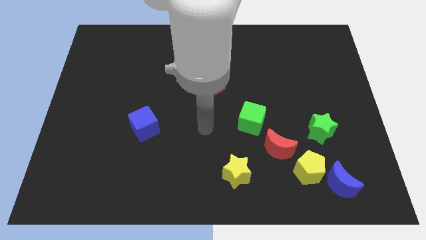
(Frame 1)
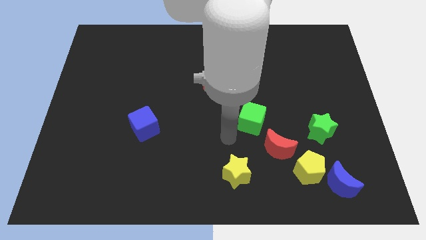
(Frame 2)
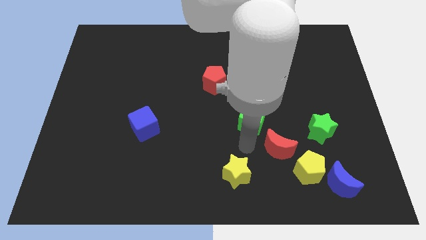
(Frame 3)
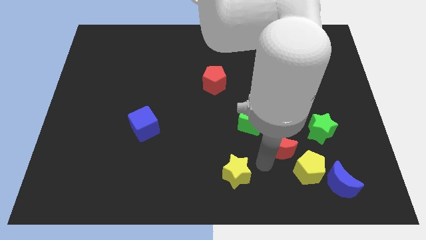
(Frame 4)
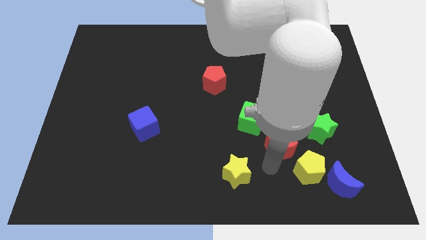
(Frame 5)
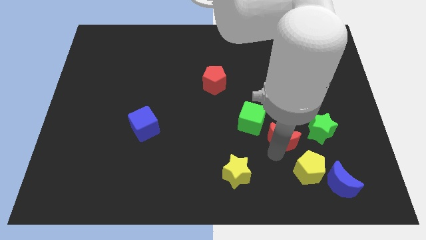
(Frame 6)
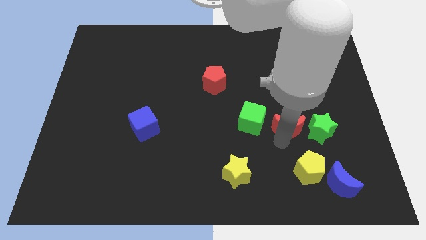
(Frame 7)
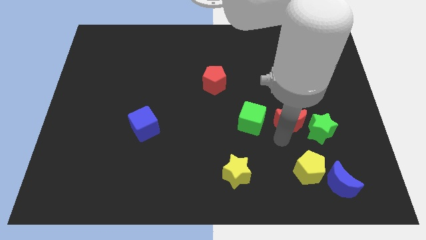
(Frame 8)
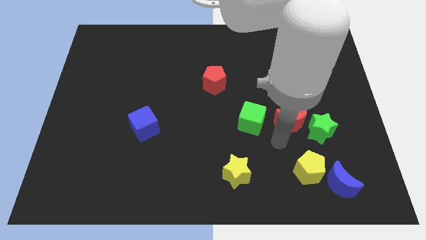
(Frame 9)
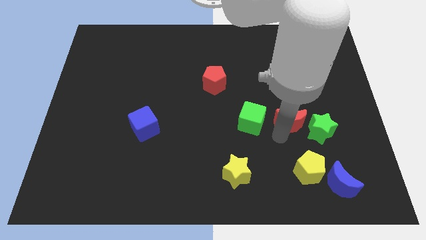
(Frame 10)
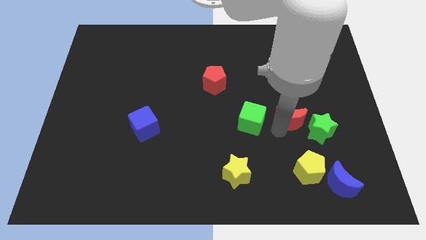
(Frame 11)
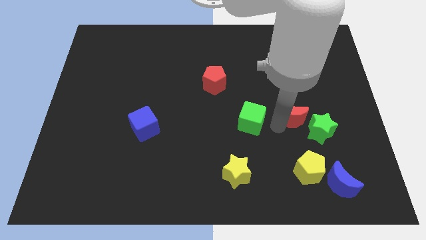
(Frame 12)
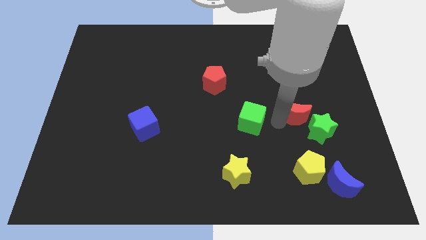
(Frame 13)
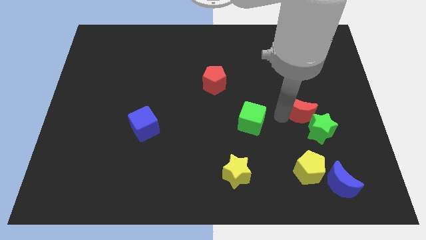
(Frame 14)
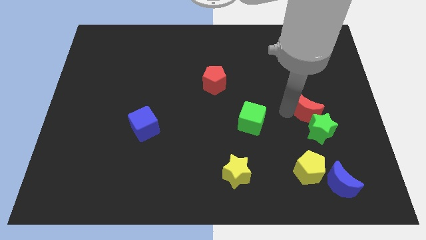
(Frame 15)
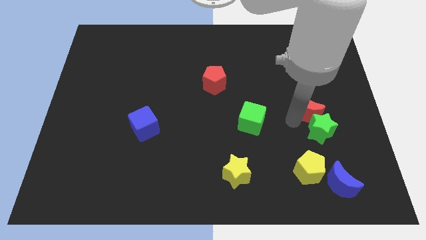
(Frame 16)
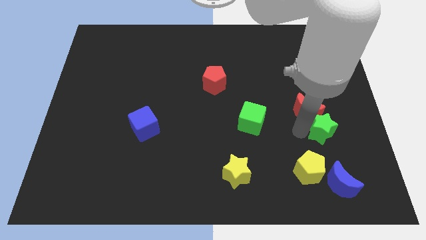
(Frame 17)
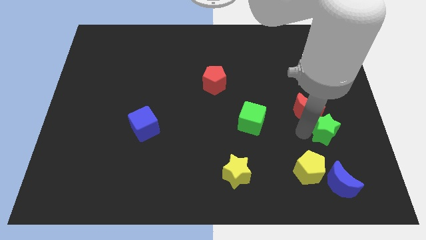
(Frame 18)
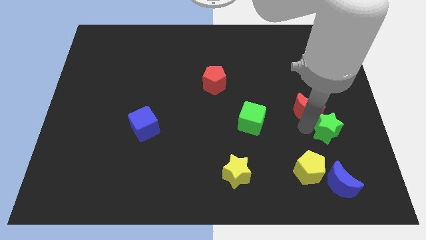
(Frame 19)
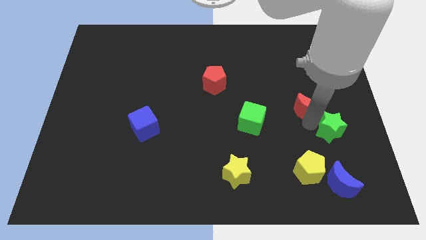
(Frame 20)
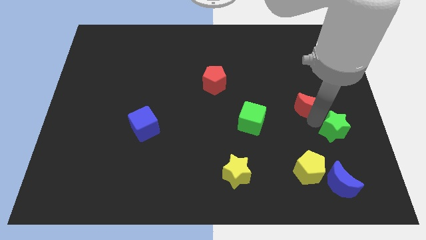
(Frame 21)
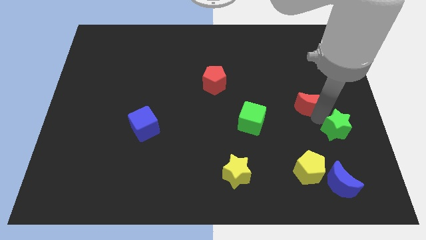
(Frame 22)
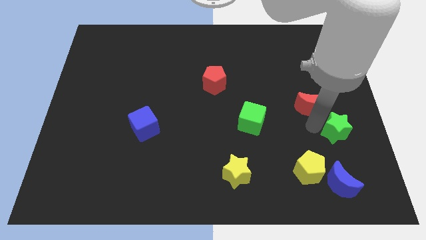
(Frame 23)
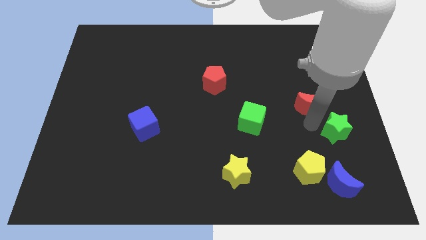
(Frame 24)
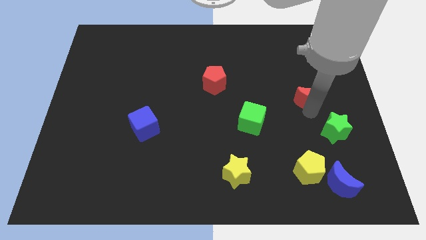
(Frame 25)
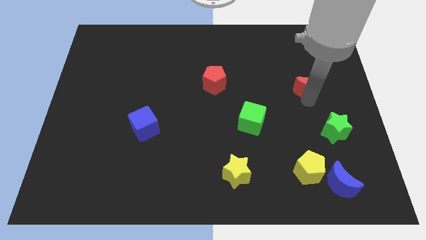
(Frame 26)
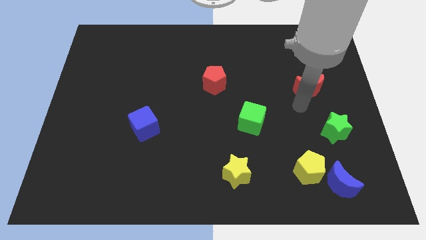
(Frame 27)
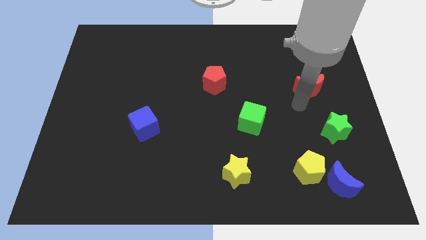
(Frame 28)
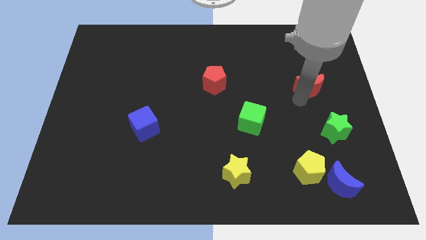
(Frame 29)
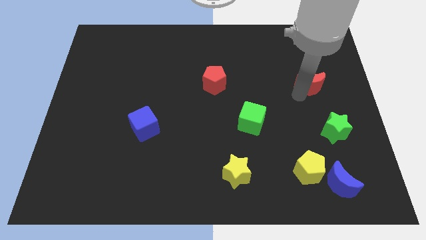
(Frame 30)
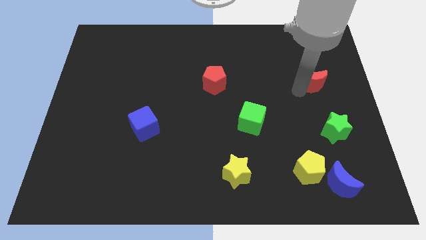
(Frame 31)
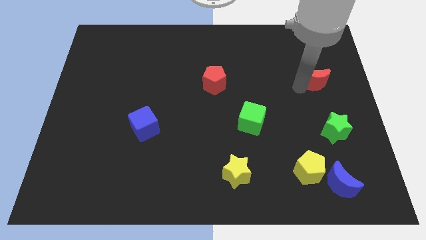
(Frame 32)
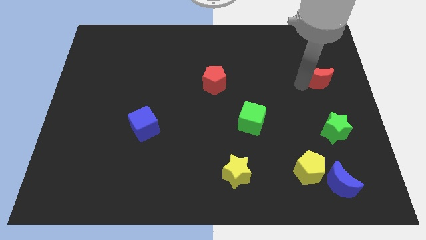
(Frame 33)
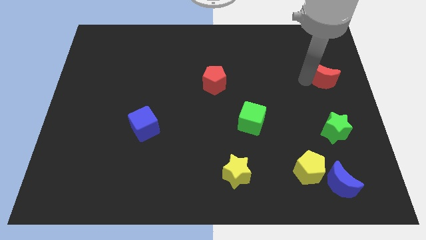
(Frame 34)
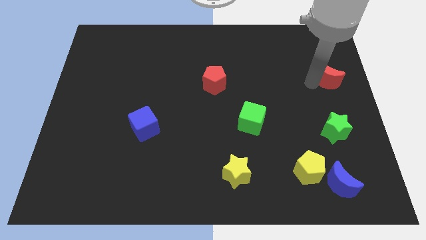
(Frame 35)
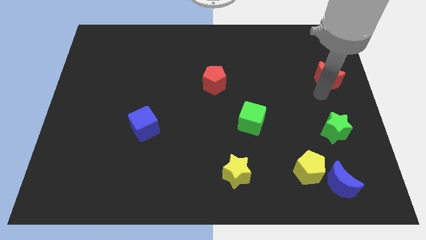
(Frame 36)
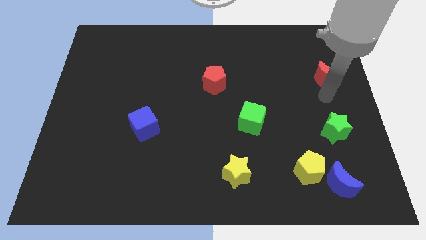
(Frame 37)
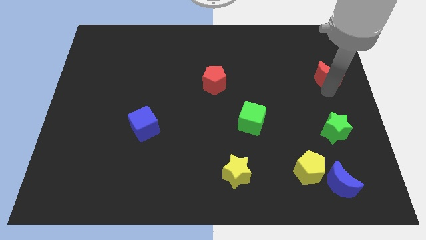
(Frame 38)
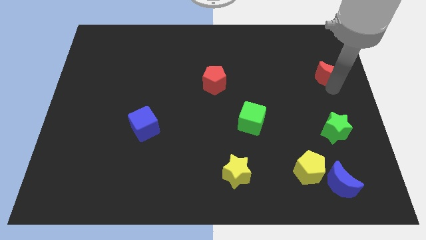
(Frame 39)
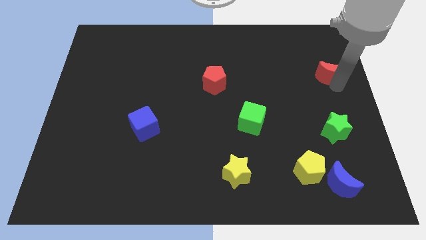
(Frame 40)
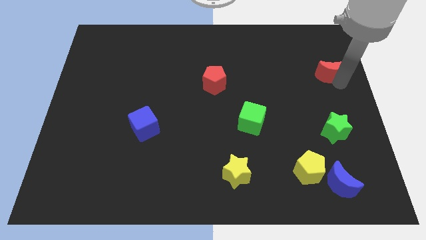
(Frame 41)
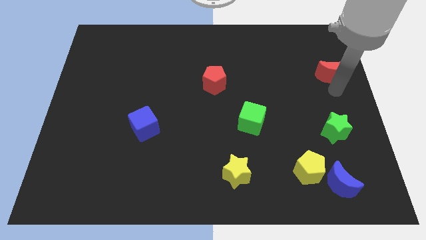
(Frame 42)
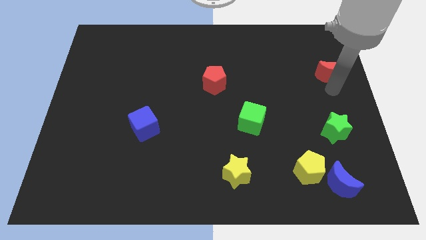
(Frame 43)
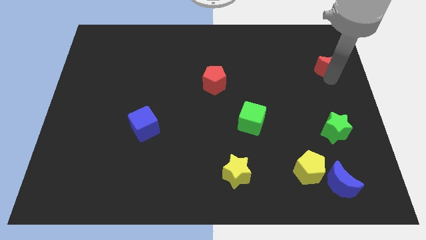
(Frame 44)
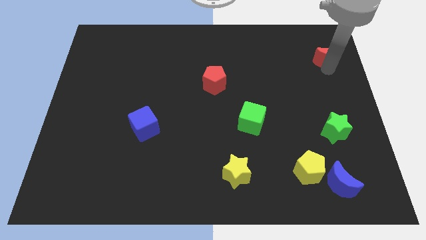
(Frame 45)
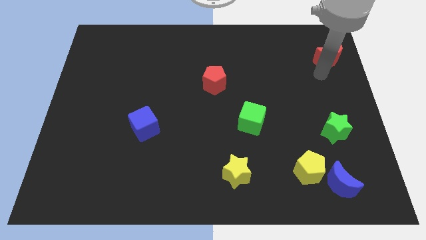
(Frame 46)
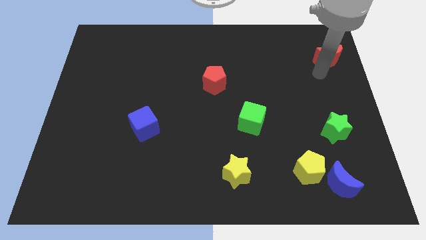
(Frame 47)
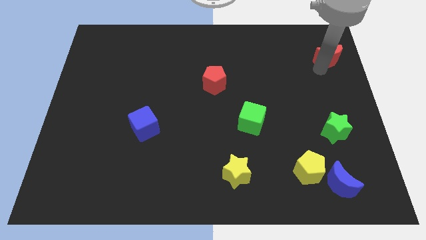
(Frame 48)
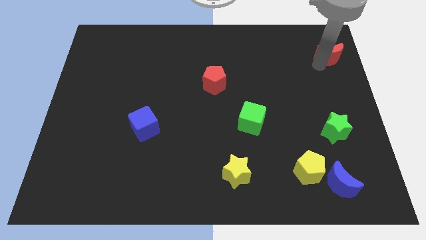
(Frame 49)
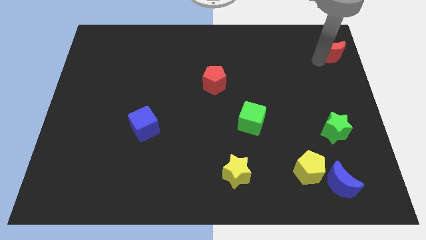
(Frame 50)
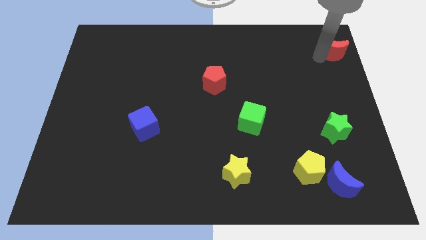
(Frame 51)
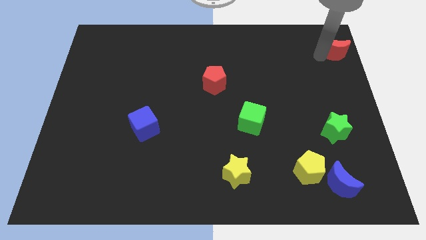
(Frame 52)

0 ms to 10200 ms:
slide the red moon to the upper right corner

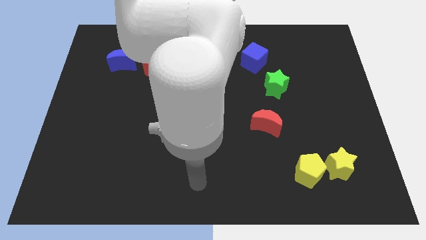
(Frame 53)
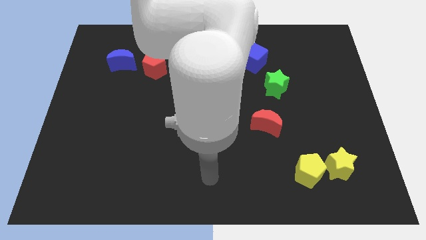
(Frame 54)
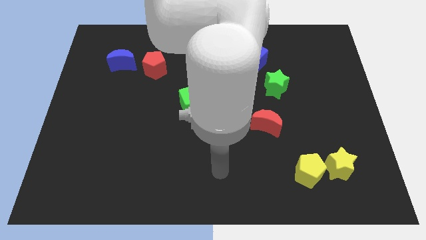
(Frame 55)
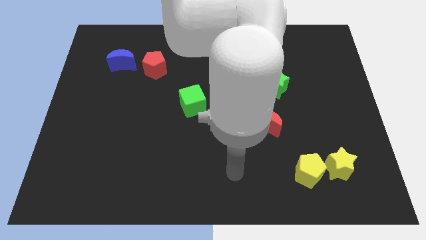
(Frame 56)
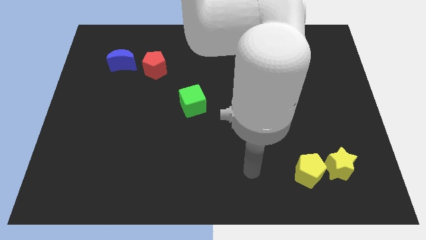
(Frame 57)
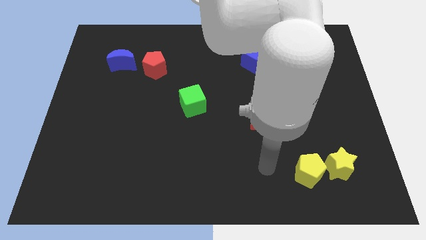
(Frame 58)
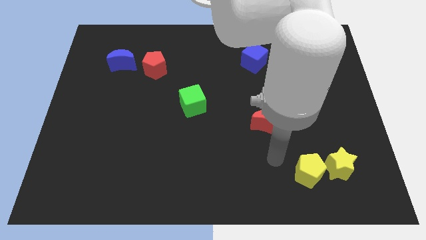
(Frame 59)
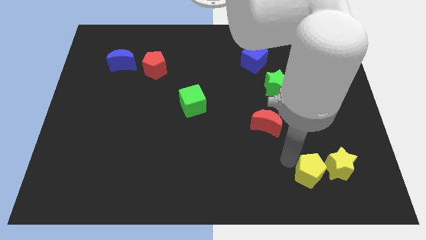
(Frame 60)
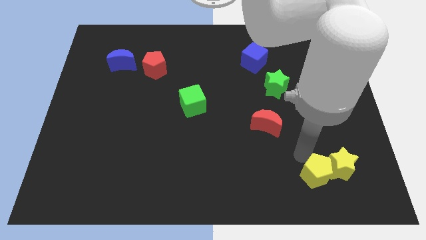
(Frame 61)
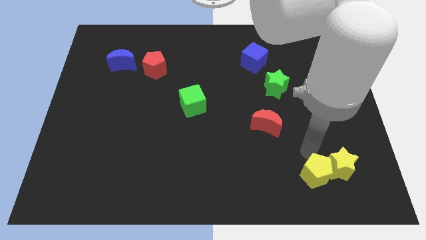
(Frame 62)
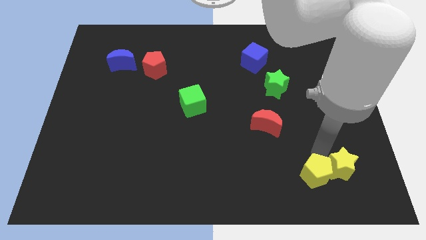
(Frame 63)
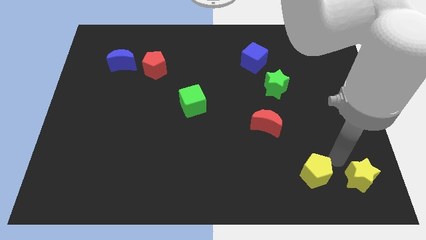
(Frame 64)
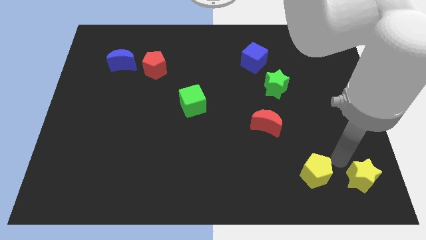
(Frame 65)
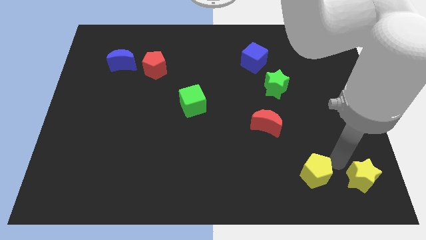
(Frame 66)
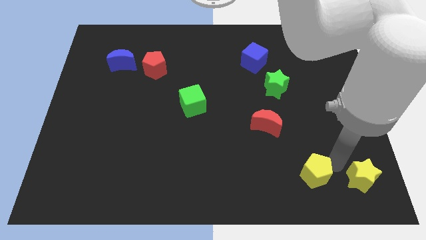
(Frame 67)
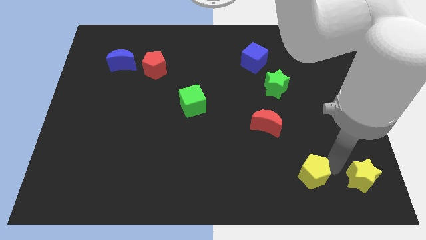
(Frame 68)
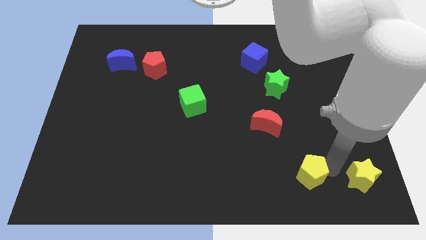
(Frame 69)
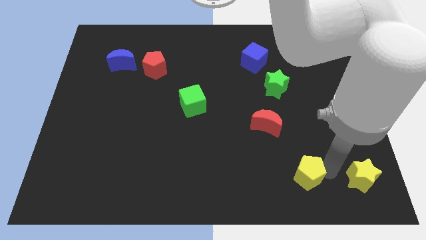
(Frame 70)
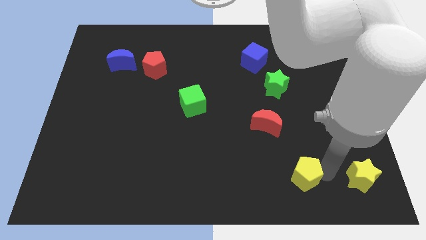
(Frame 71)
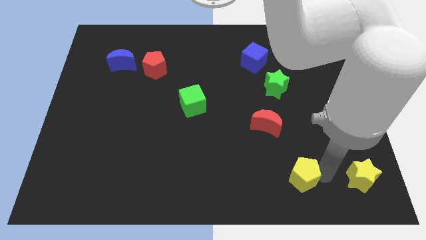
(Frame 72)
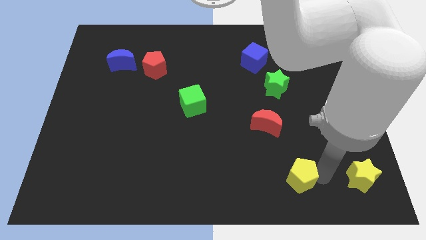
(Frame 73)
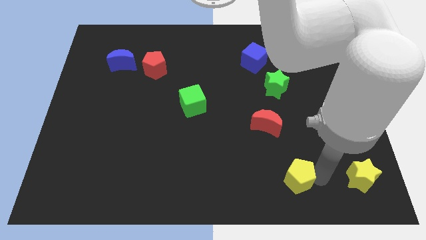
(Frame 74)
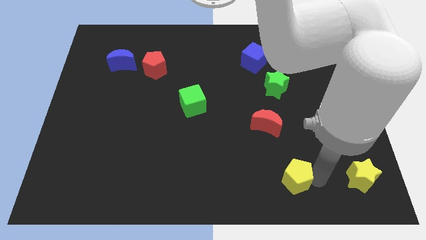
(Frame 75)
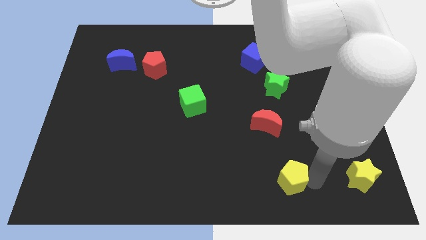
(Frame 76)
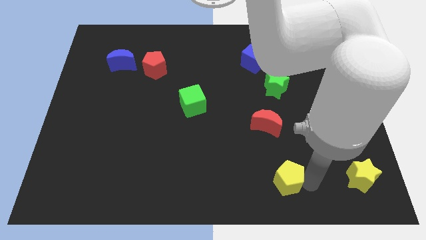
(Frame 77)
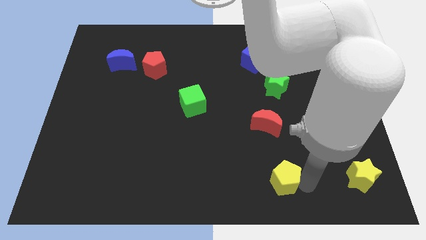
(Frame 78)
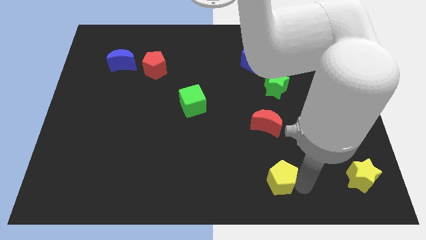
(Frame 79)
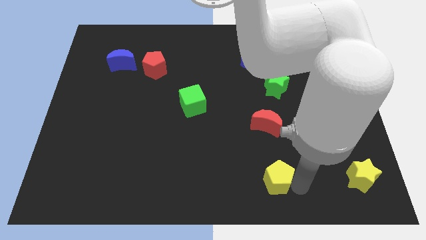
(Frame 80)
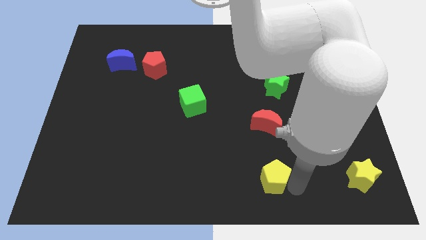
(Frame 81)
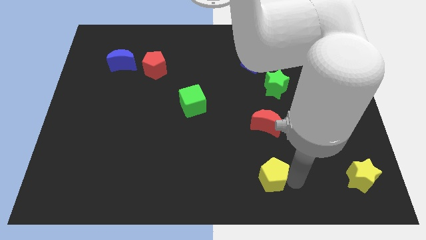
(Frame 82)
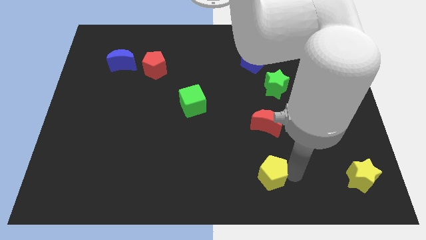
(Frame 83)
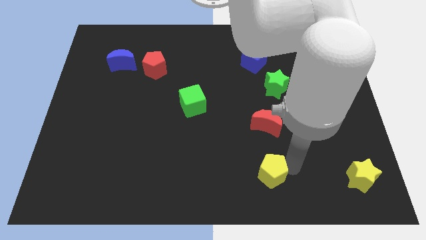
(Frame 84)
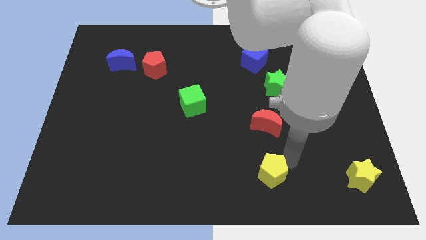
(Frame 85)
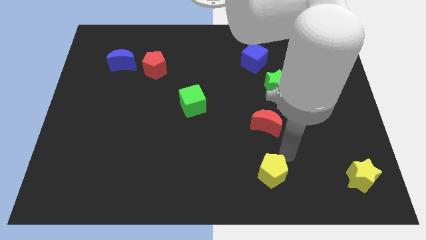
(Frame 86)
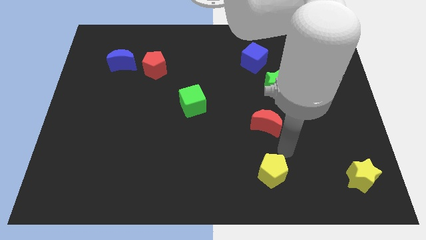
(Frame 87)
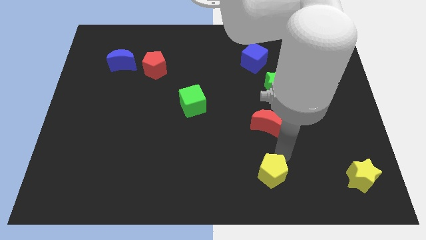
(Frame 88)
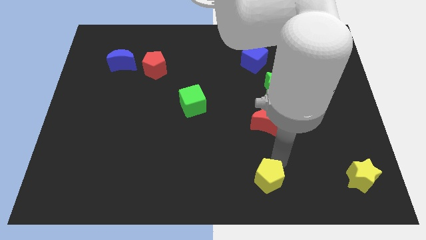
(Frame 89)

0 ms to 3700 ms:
move the yellow pentagon to the bottom side
